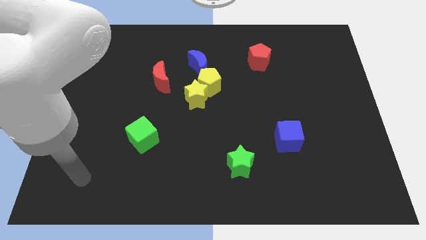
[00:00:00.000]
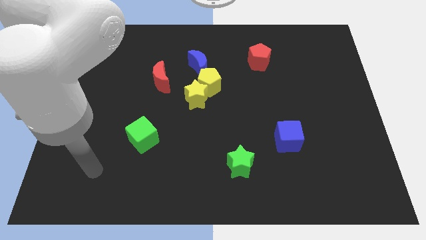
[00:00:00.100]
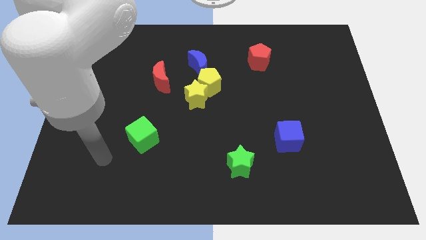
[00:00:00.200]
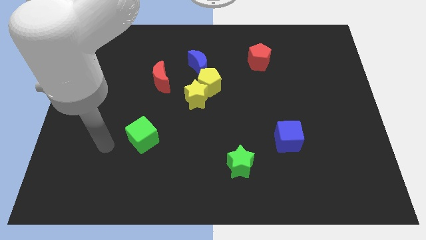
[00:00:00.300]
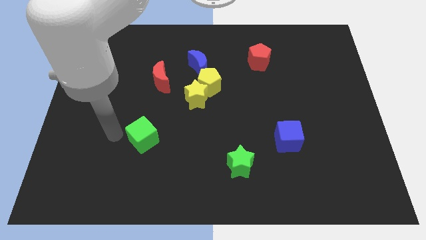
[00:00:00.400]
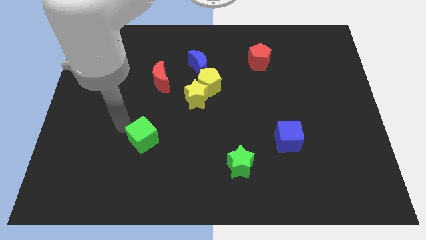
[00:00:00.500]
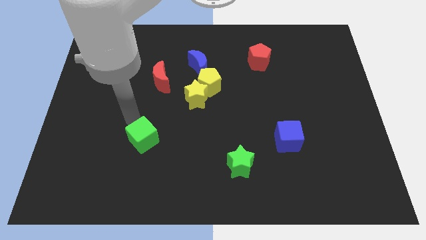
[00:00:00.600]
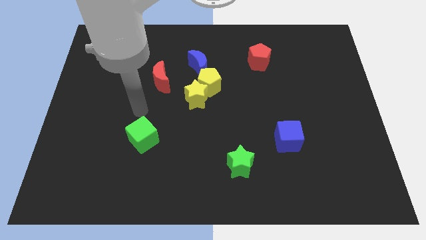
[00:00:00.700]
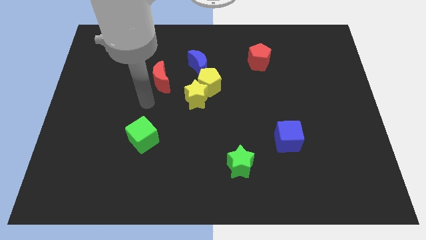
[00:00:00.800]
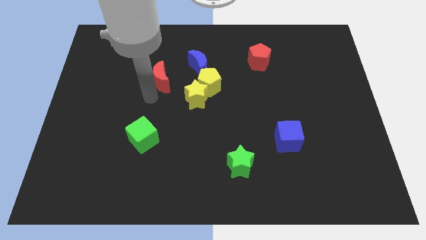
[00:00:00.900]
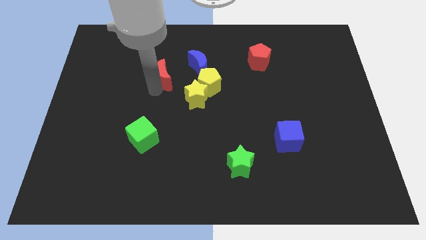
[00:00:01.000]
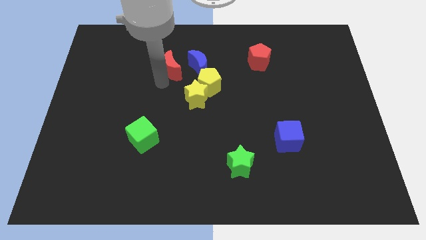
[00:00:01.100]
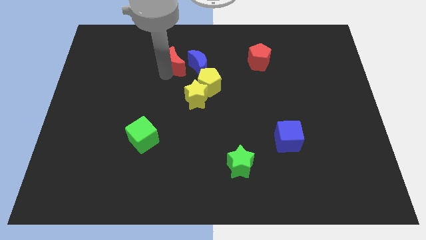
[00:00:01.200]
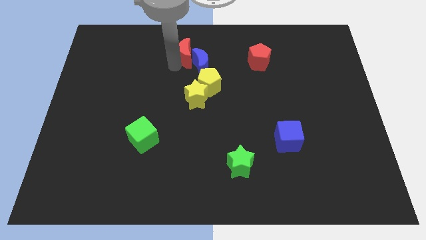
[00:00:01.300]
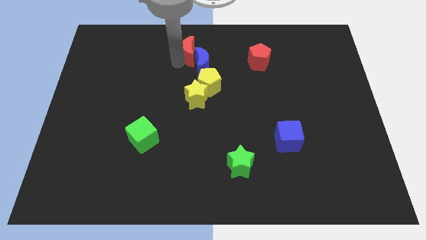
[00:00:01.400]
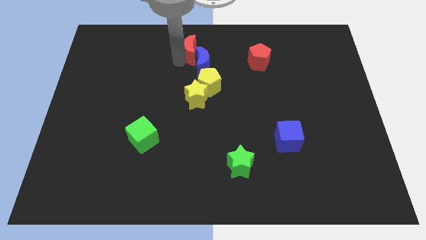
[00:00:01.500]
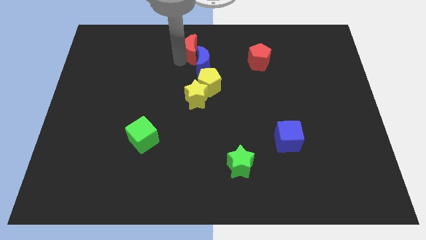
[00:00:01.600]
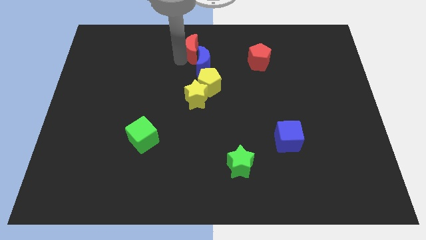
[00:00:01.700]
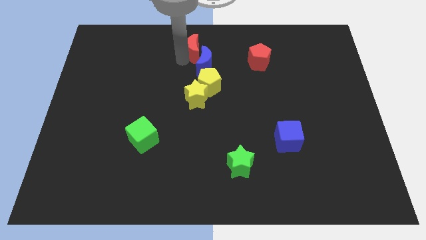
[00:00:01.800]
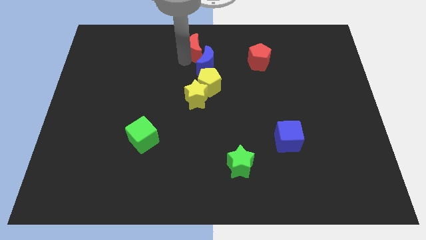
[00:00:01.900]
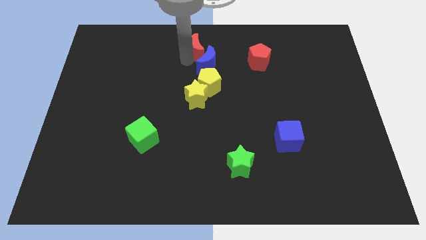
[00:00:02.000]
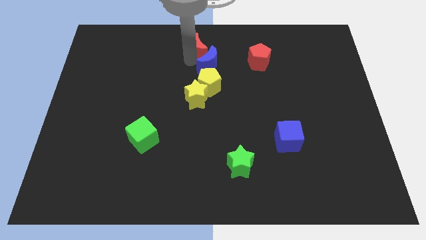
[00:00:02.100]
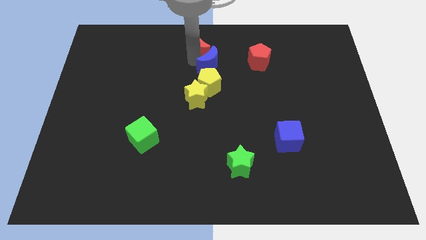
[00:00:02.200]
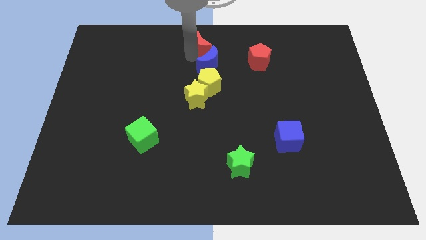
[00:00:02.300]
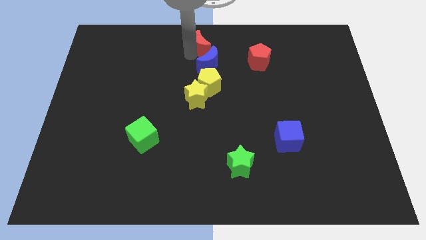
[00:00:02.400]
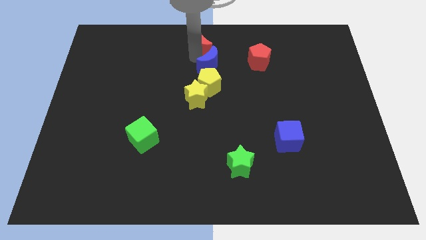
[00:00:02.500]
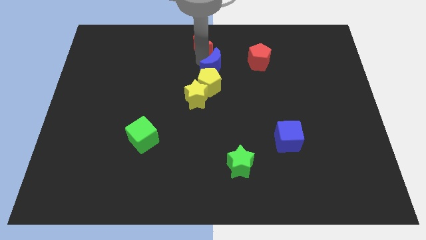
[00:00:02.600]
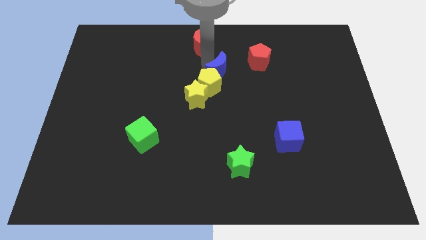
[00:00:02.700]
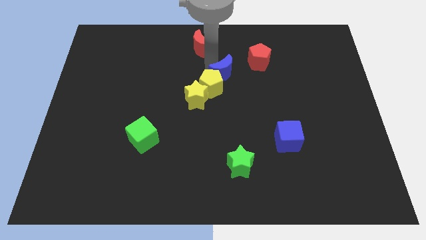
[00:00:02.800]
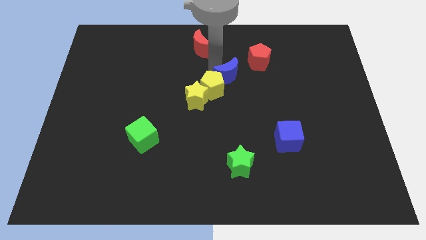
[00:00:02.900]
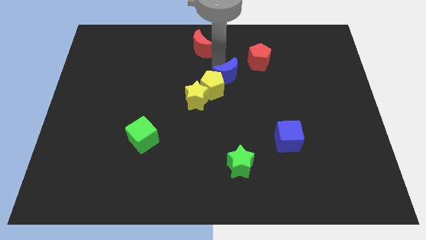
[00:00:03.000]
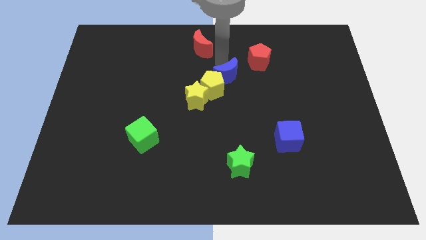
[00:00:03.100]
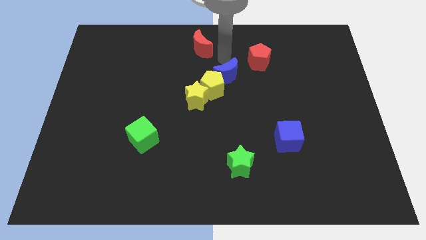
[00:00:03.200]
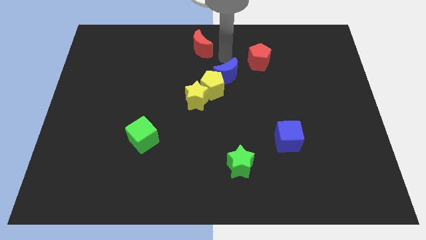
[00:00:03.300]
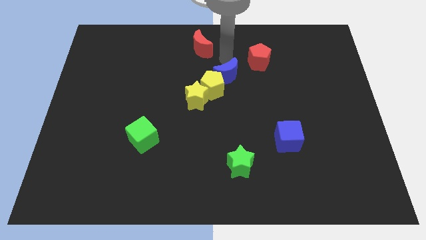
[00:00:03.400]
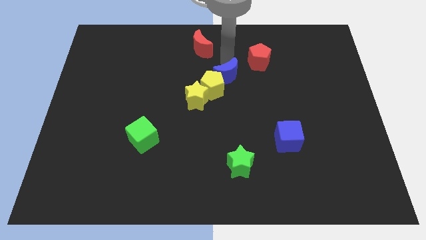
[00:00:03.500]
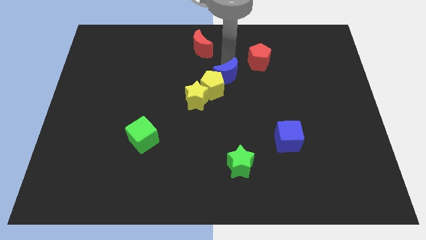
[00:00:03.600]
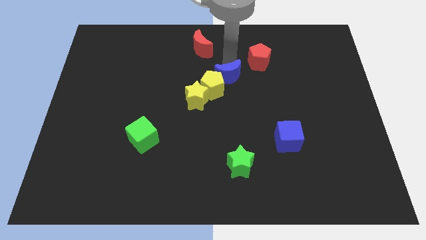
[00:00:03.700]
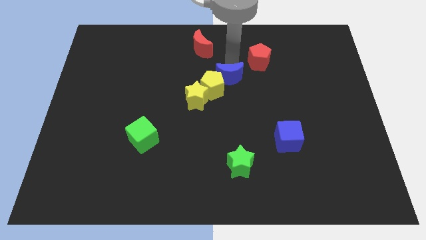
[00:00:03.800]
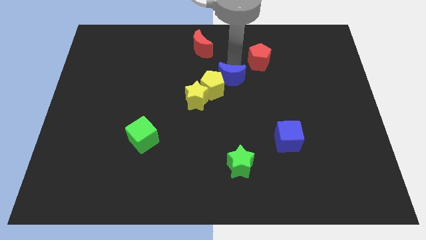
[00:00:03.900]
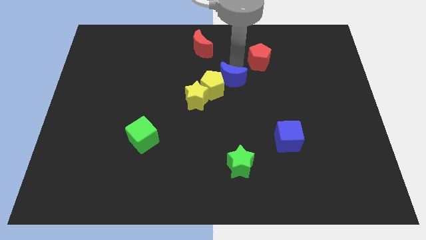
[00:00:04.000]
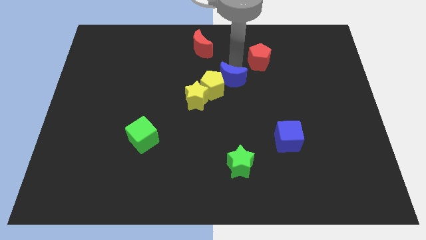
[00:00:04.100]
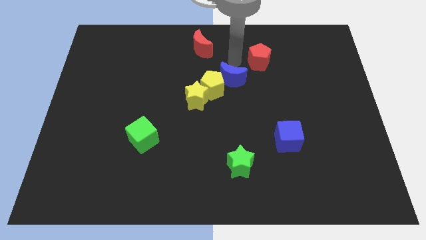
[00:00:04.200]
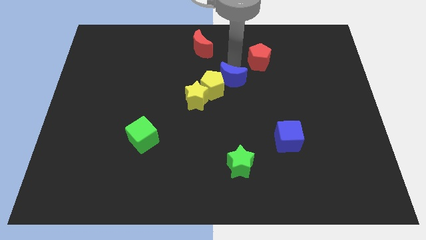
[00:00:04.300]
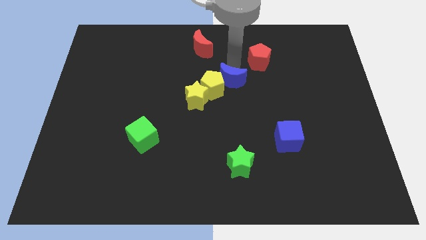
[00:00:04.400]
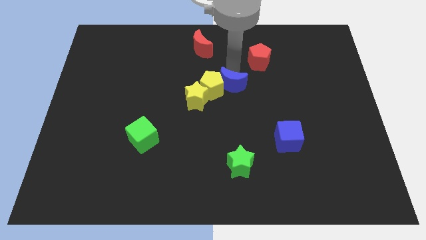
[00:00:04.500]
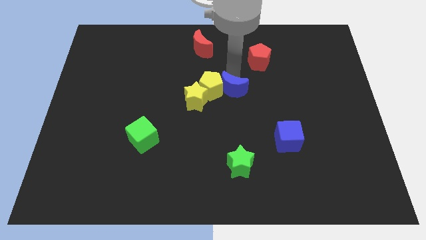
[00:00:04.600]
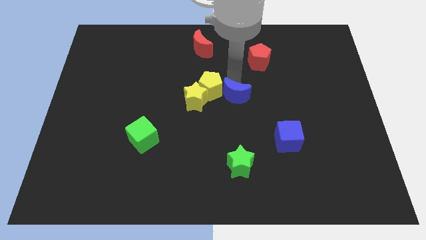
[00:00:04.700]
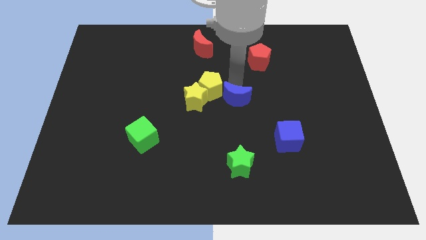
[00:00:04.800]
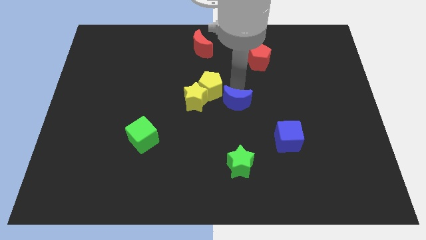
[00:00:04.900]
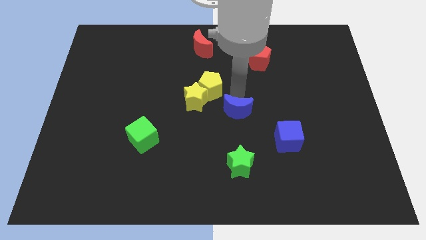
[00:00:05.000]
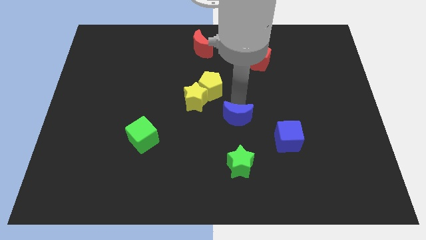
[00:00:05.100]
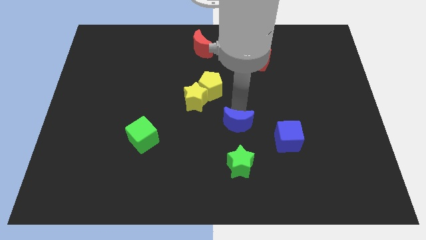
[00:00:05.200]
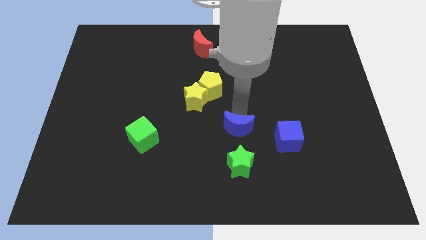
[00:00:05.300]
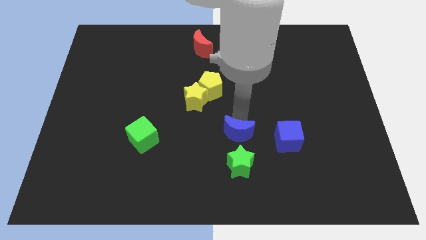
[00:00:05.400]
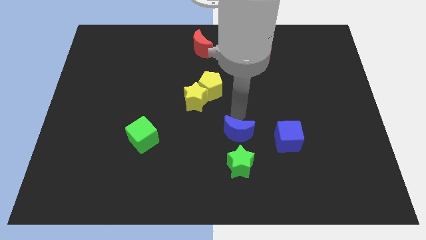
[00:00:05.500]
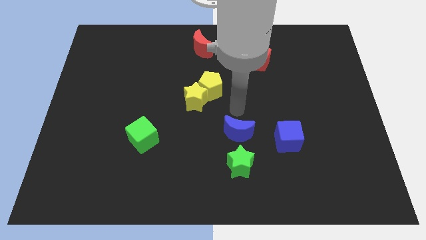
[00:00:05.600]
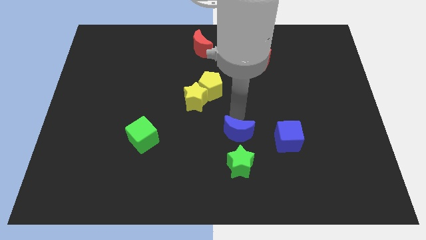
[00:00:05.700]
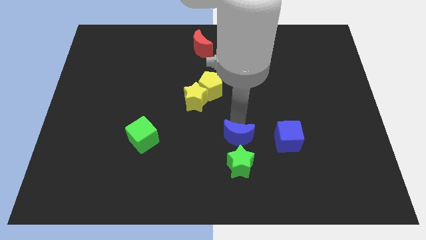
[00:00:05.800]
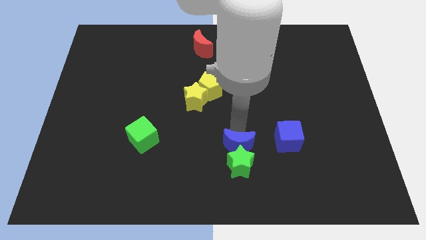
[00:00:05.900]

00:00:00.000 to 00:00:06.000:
put the blue moon close to the green star

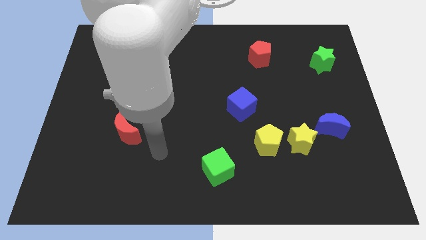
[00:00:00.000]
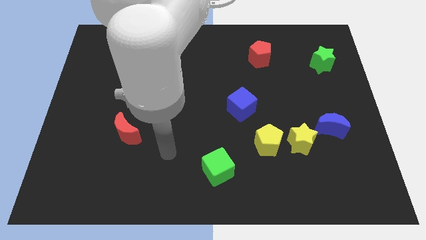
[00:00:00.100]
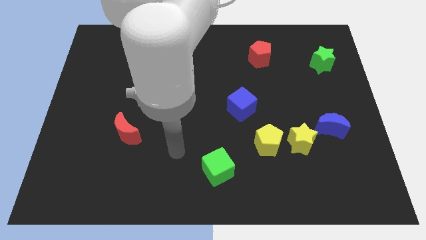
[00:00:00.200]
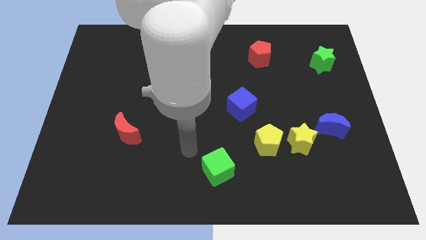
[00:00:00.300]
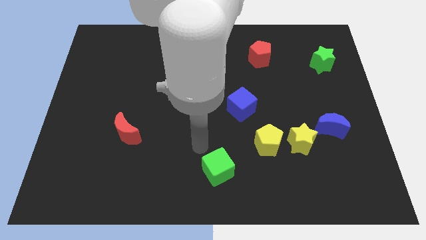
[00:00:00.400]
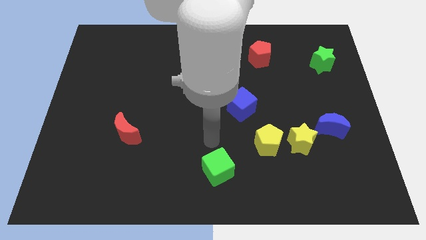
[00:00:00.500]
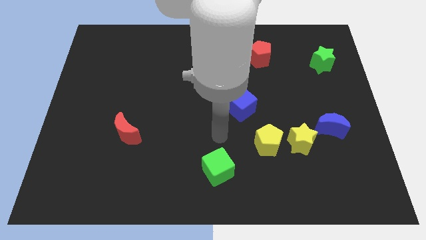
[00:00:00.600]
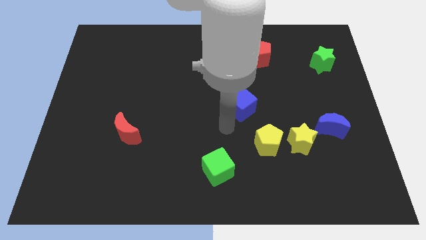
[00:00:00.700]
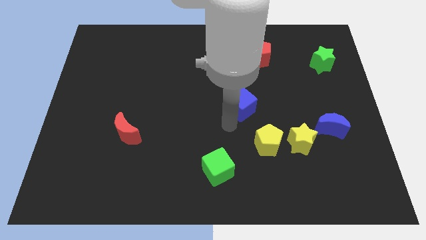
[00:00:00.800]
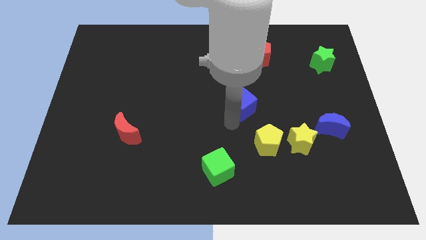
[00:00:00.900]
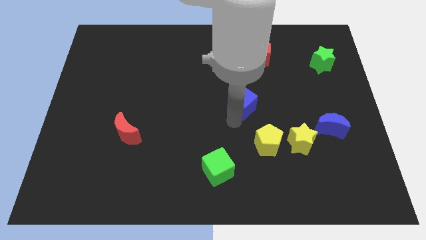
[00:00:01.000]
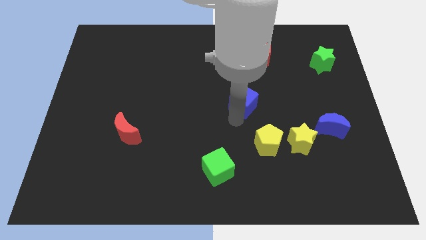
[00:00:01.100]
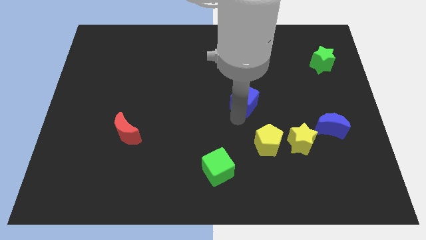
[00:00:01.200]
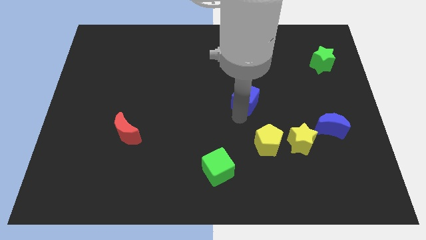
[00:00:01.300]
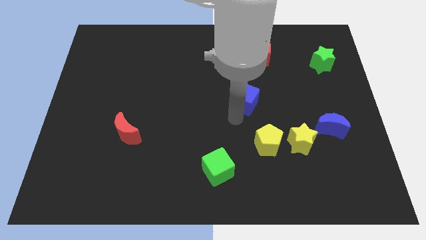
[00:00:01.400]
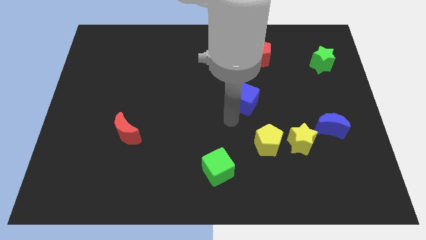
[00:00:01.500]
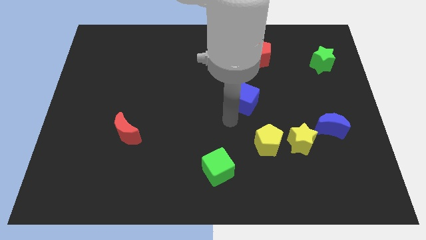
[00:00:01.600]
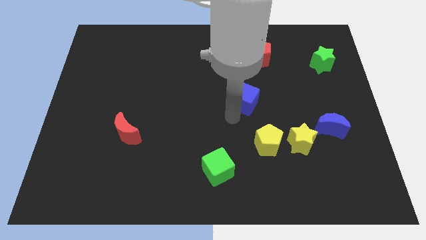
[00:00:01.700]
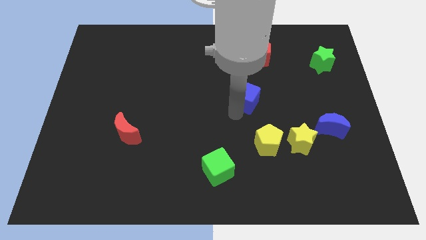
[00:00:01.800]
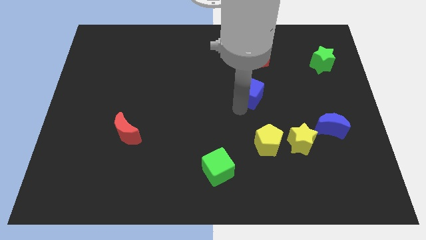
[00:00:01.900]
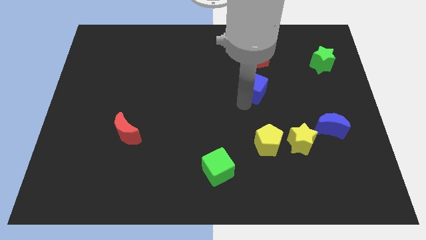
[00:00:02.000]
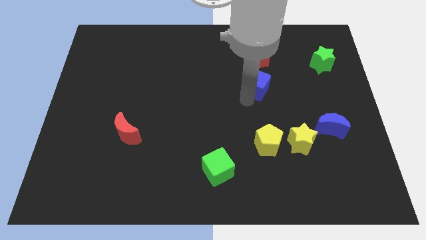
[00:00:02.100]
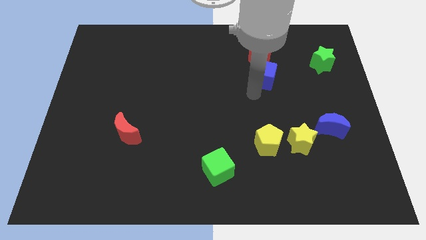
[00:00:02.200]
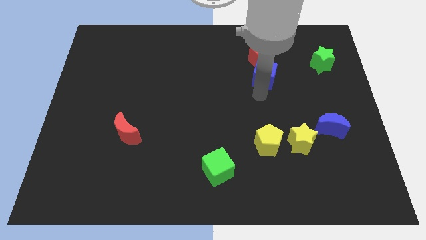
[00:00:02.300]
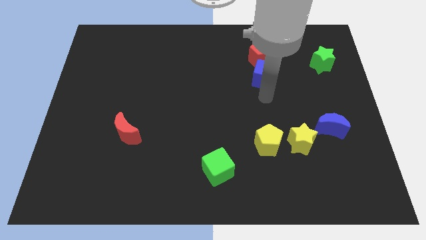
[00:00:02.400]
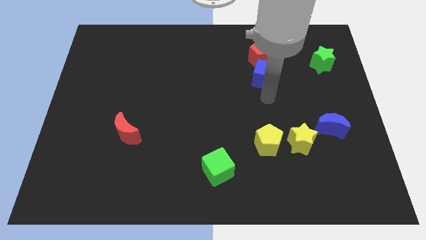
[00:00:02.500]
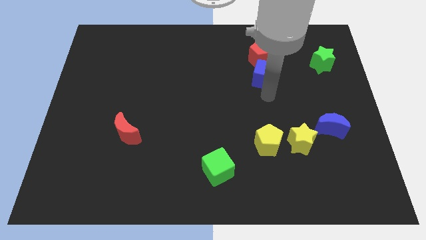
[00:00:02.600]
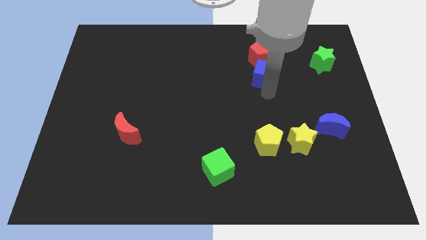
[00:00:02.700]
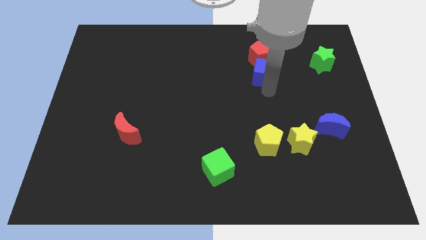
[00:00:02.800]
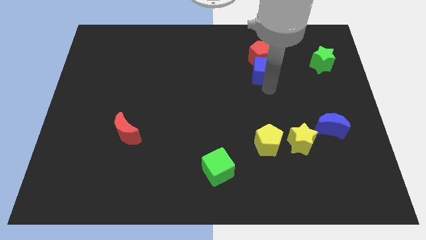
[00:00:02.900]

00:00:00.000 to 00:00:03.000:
push the blue cube to the red pentagon
